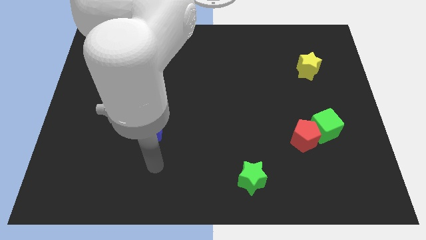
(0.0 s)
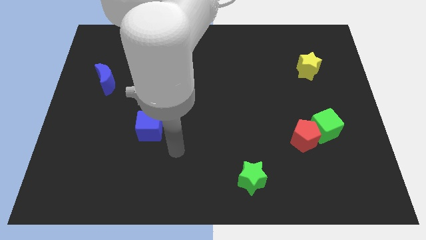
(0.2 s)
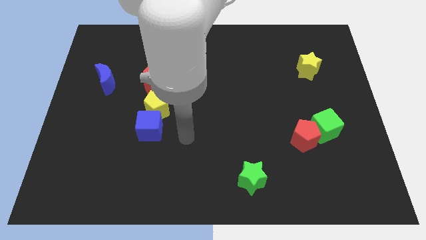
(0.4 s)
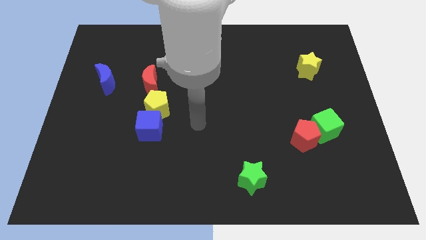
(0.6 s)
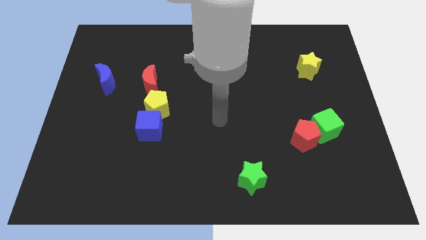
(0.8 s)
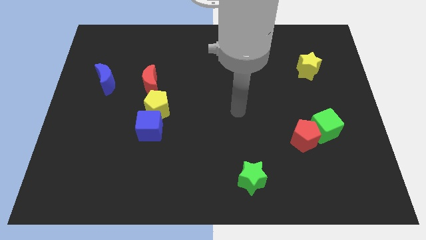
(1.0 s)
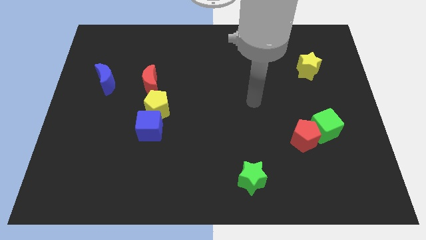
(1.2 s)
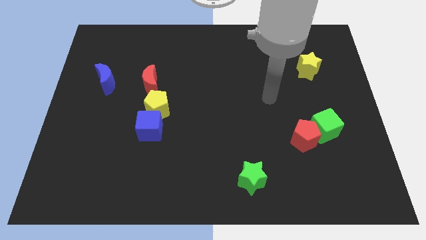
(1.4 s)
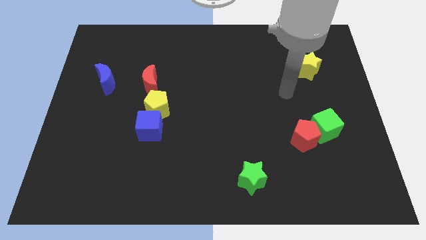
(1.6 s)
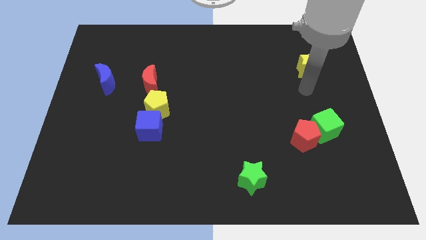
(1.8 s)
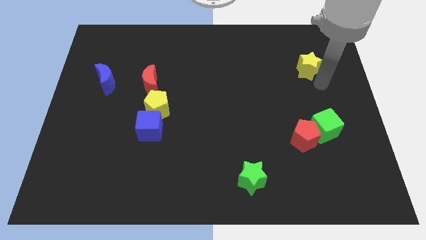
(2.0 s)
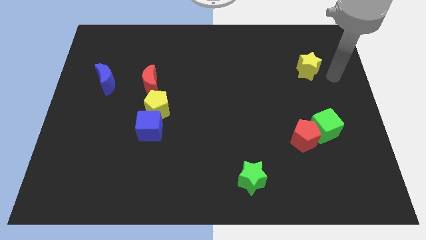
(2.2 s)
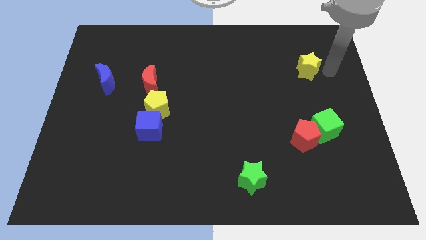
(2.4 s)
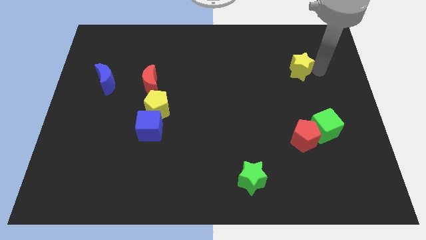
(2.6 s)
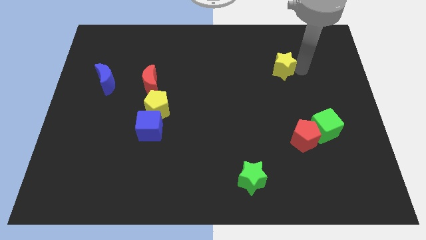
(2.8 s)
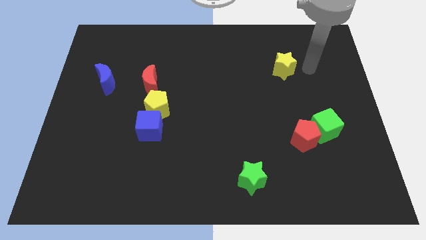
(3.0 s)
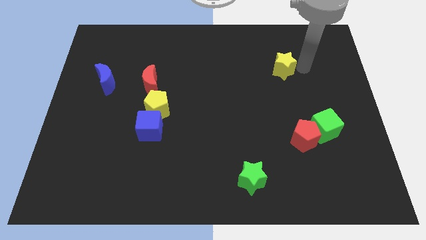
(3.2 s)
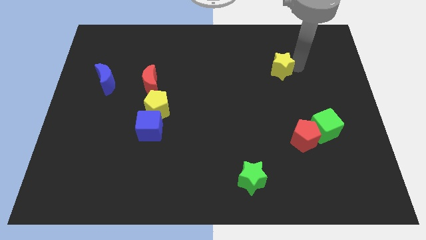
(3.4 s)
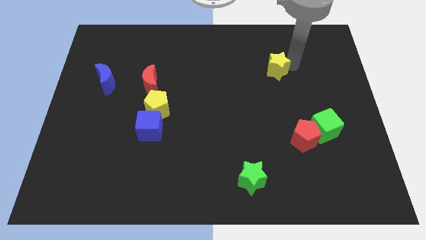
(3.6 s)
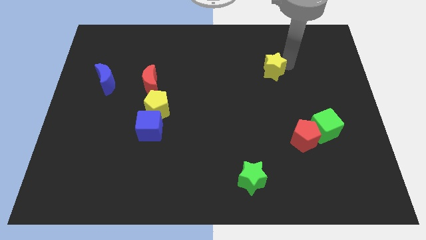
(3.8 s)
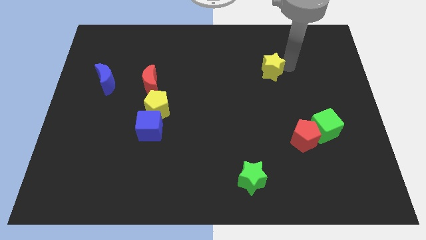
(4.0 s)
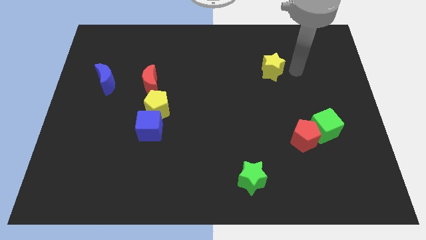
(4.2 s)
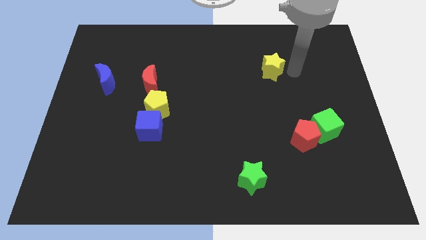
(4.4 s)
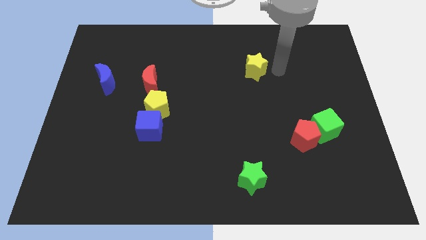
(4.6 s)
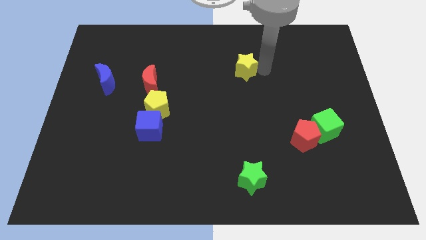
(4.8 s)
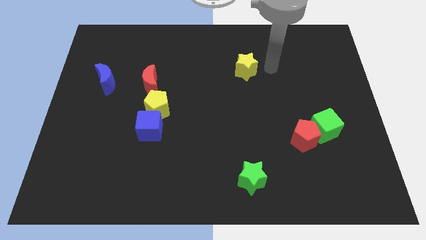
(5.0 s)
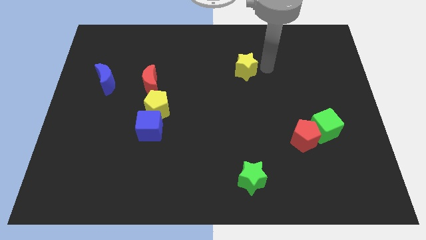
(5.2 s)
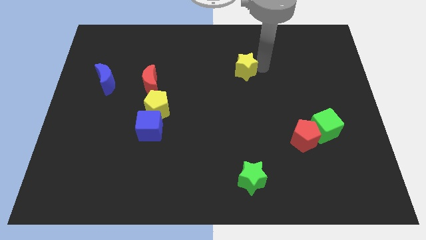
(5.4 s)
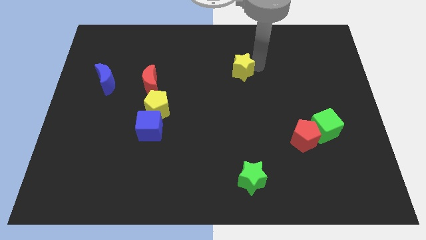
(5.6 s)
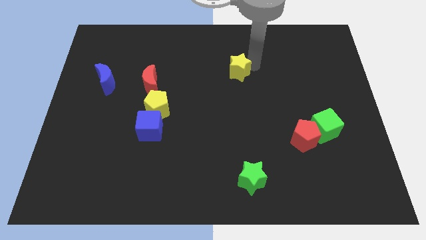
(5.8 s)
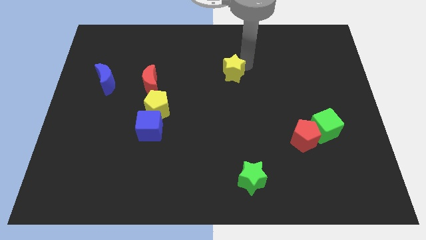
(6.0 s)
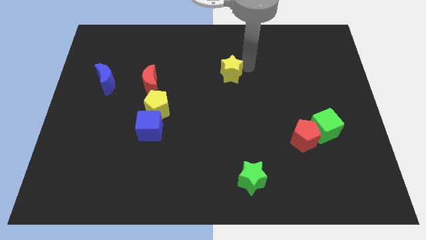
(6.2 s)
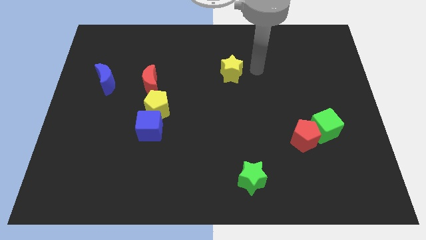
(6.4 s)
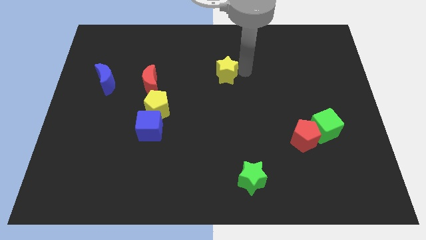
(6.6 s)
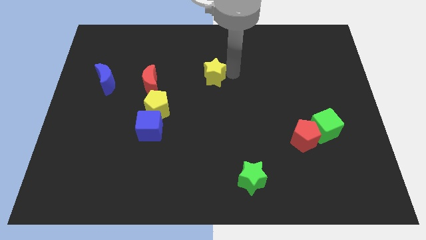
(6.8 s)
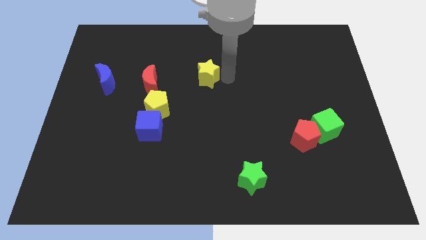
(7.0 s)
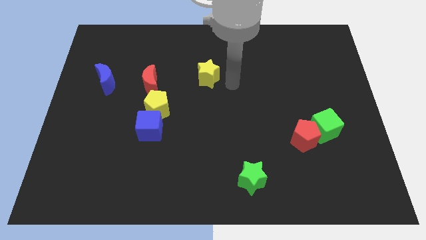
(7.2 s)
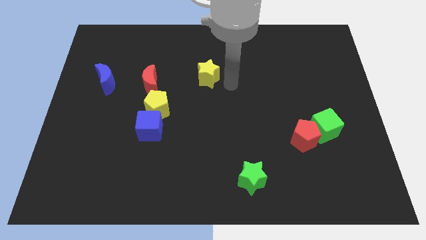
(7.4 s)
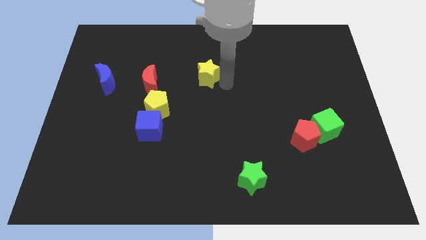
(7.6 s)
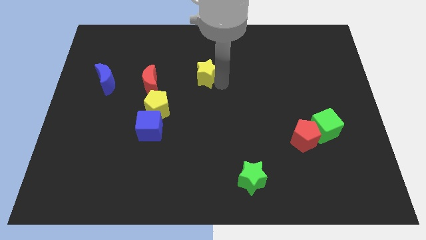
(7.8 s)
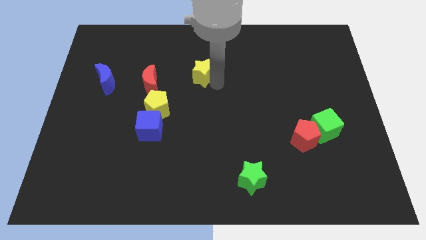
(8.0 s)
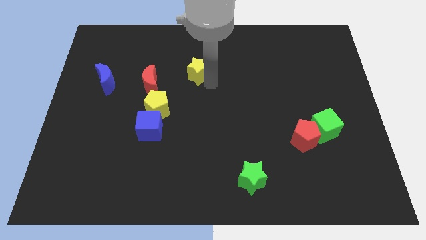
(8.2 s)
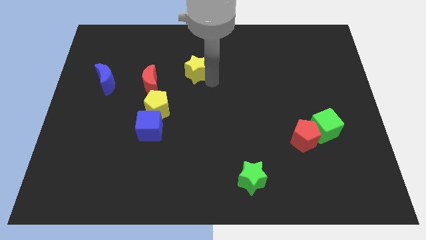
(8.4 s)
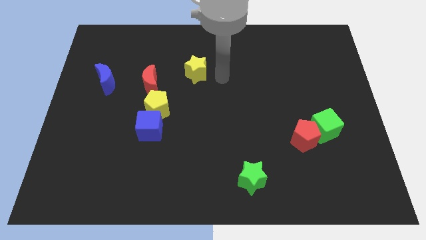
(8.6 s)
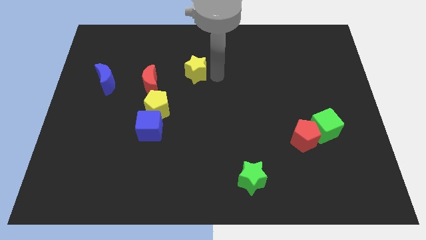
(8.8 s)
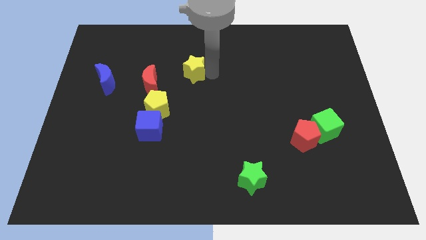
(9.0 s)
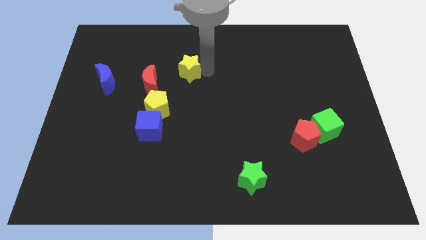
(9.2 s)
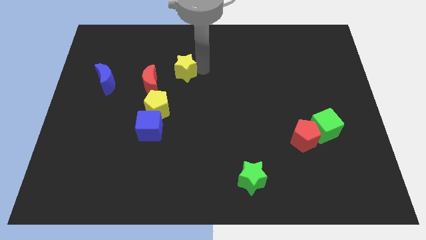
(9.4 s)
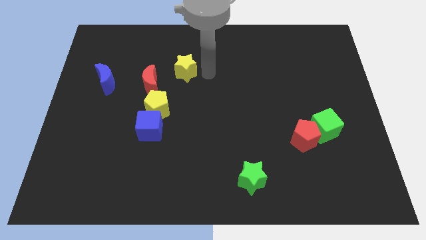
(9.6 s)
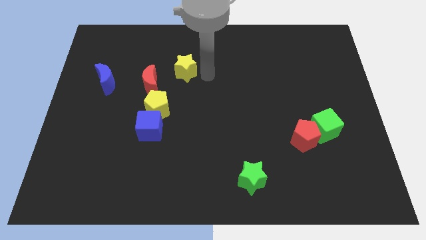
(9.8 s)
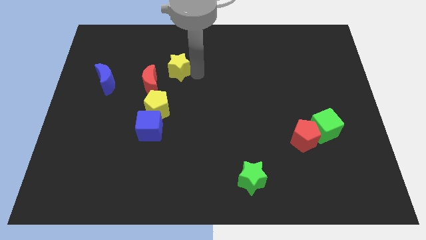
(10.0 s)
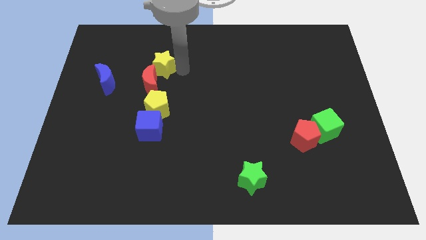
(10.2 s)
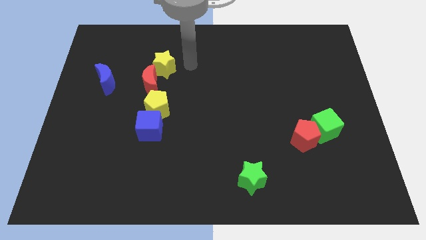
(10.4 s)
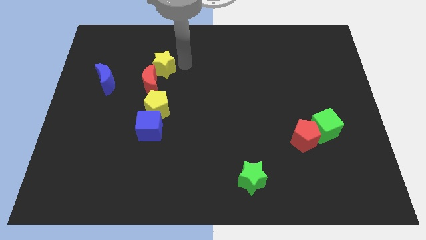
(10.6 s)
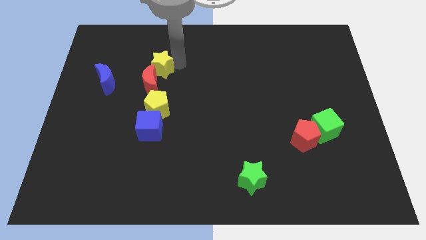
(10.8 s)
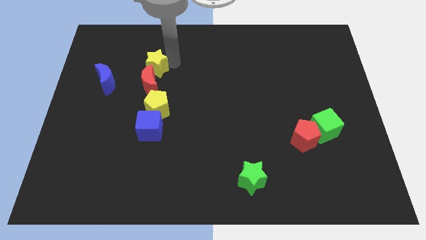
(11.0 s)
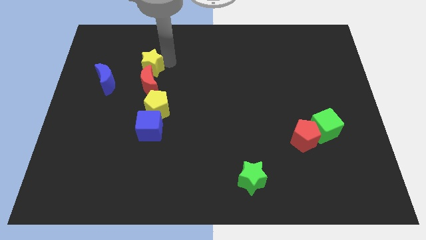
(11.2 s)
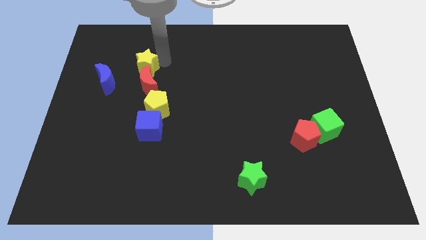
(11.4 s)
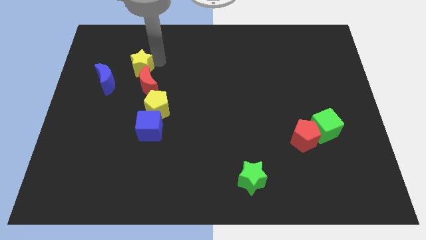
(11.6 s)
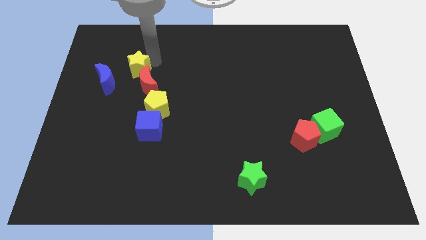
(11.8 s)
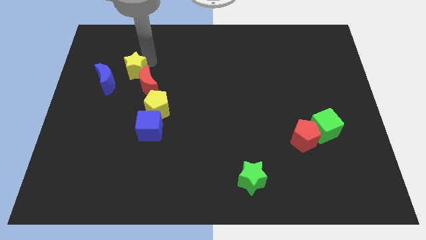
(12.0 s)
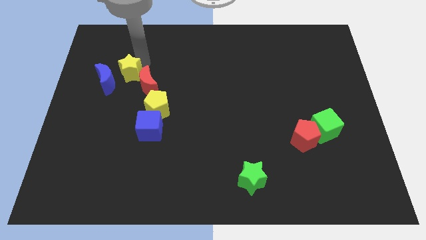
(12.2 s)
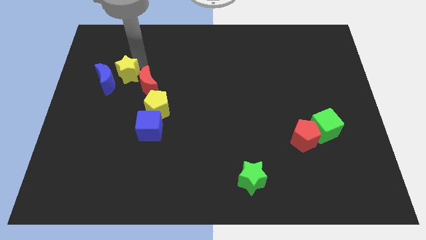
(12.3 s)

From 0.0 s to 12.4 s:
slide the yellow star towards the blue moon

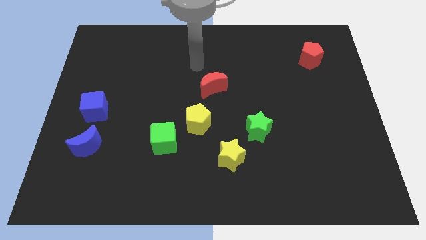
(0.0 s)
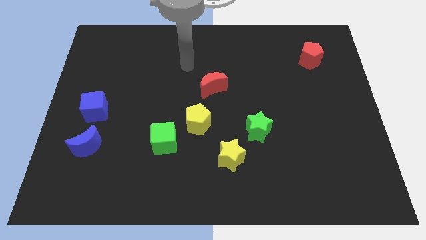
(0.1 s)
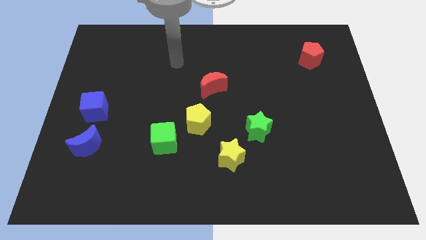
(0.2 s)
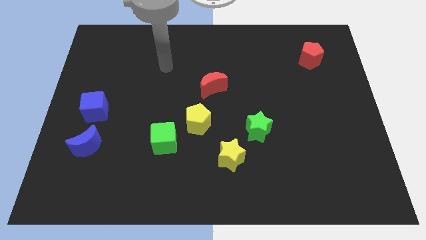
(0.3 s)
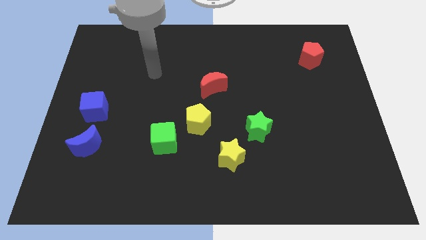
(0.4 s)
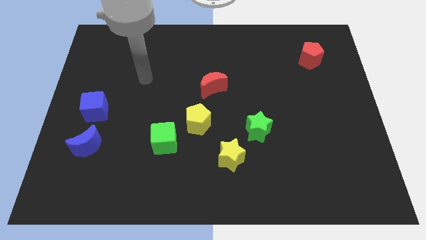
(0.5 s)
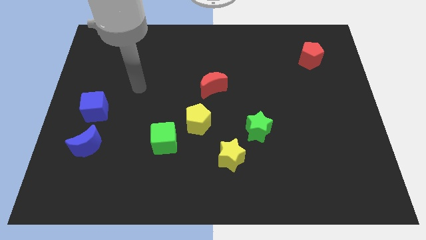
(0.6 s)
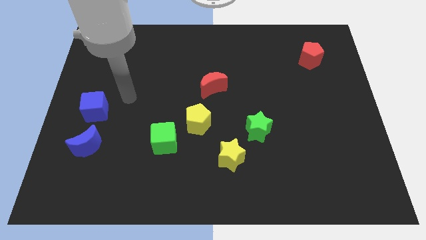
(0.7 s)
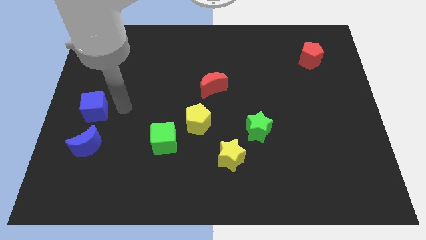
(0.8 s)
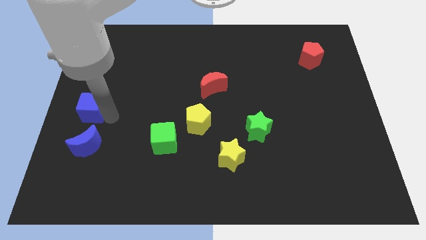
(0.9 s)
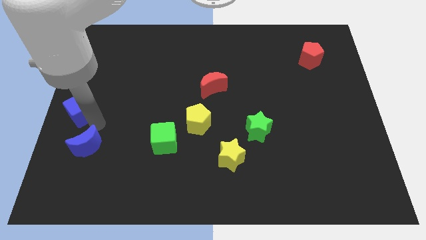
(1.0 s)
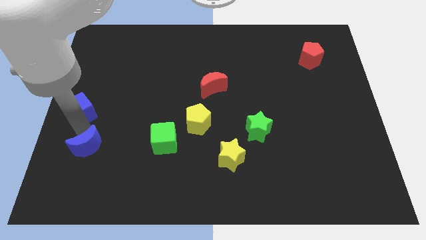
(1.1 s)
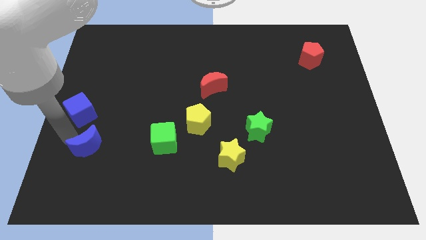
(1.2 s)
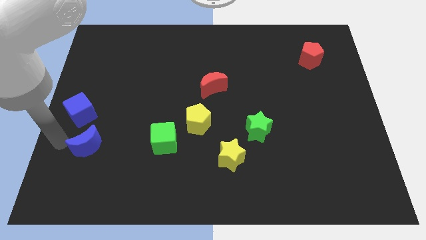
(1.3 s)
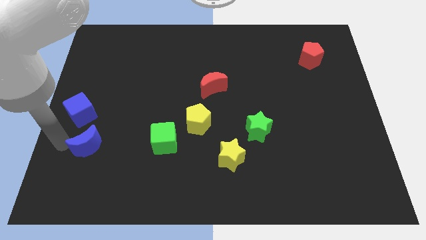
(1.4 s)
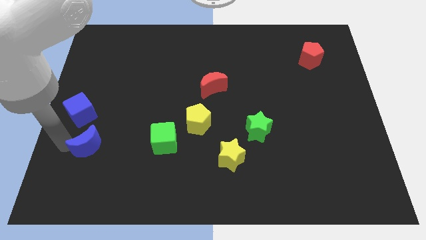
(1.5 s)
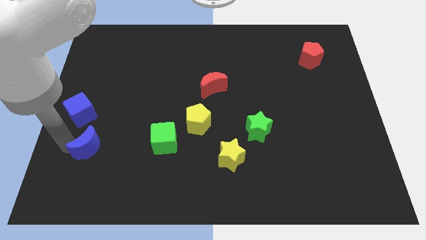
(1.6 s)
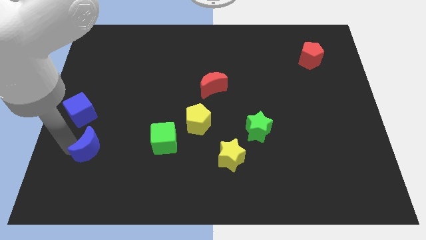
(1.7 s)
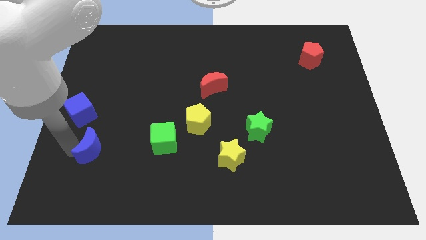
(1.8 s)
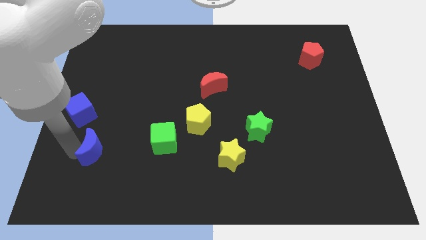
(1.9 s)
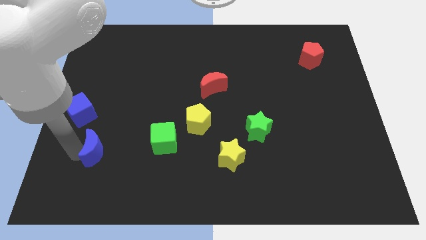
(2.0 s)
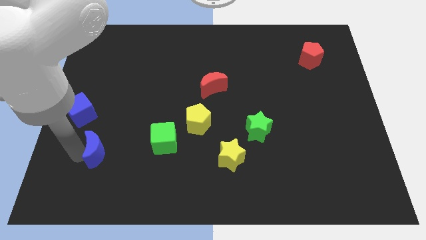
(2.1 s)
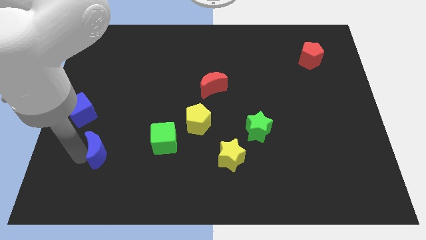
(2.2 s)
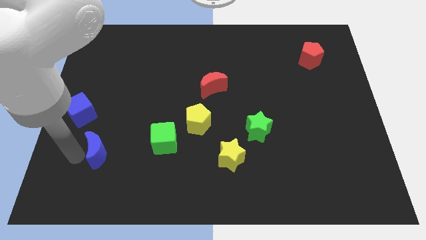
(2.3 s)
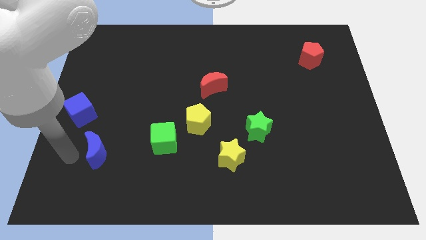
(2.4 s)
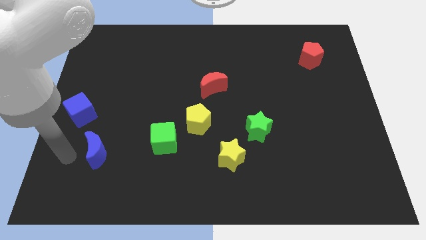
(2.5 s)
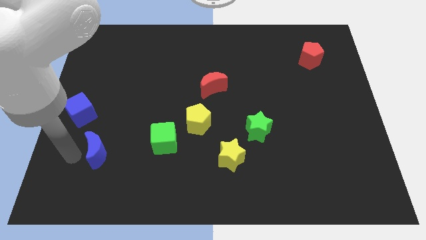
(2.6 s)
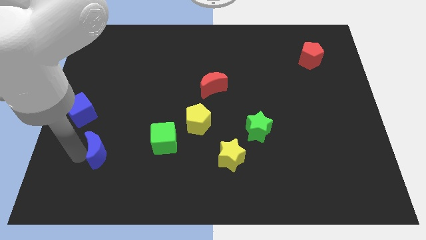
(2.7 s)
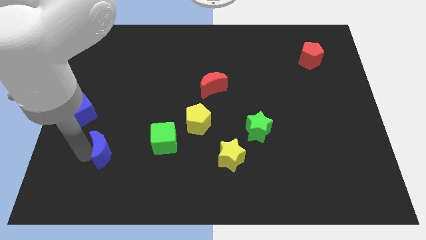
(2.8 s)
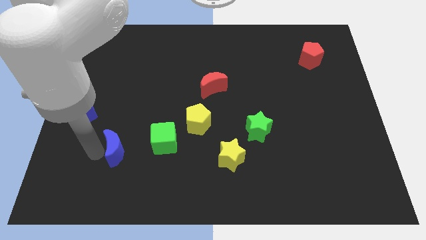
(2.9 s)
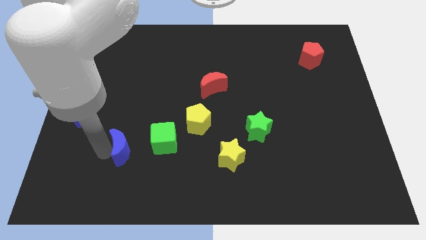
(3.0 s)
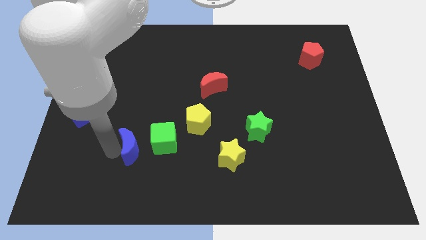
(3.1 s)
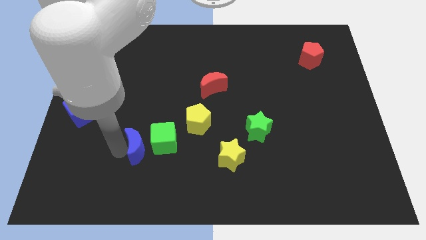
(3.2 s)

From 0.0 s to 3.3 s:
move the blue moon next to the green cube
